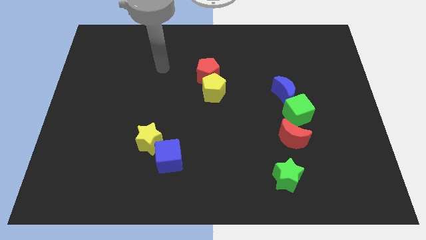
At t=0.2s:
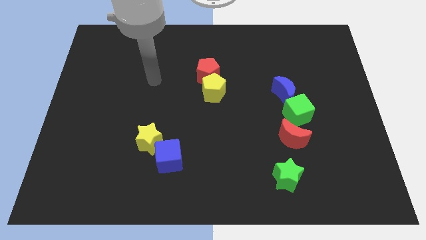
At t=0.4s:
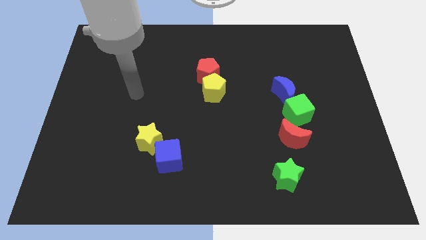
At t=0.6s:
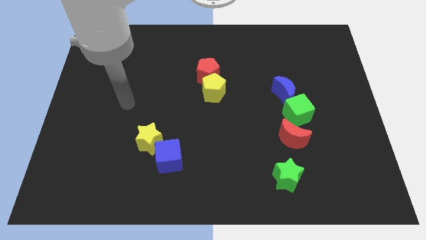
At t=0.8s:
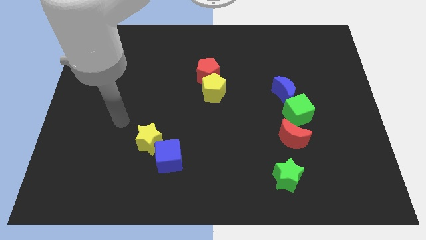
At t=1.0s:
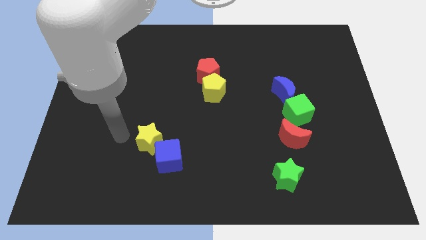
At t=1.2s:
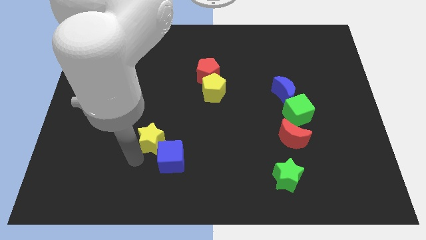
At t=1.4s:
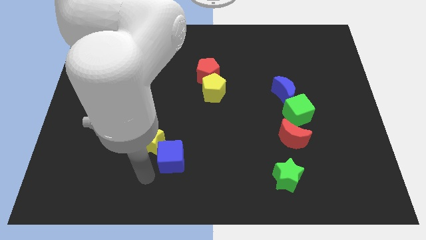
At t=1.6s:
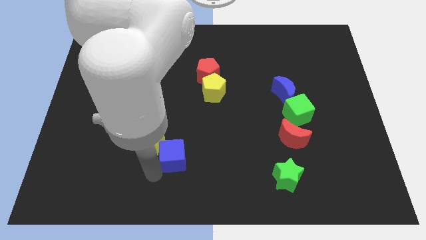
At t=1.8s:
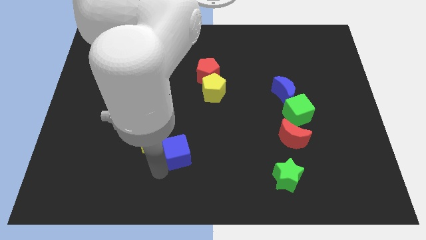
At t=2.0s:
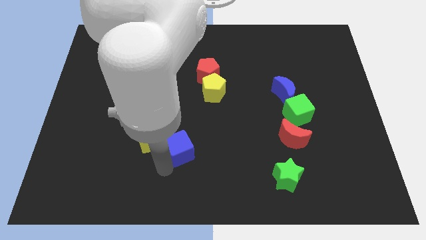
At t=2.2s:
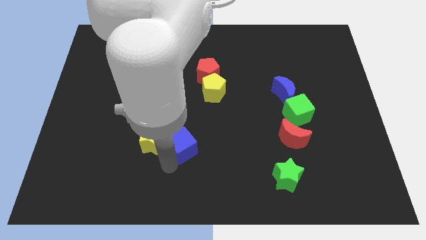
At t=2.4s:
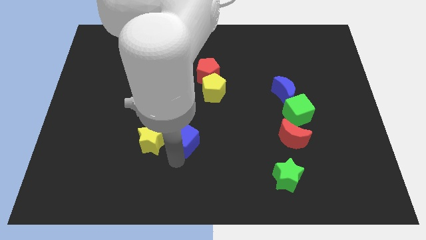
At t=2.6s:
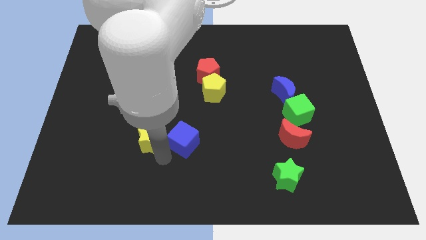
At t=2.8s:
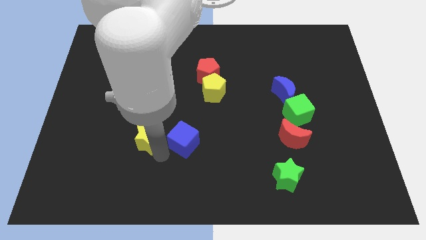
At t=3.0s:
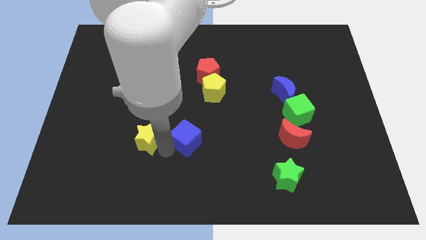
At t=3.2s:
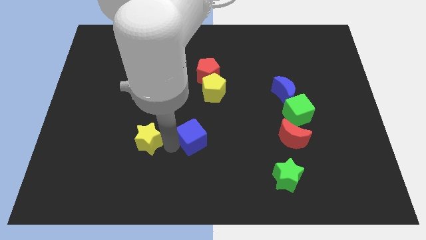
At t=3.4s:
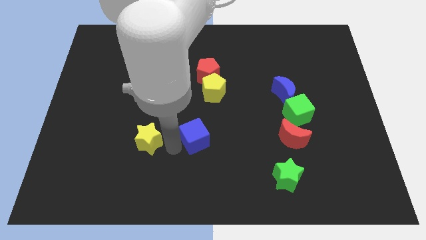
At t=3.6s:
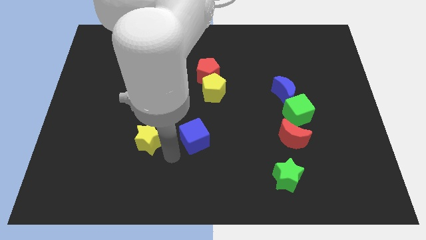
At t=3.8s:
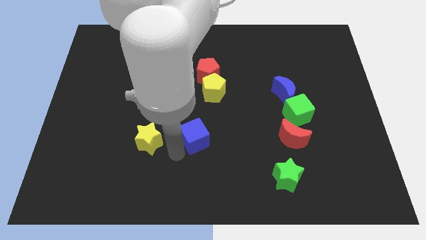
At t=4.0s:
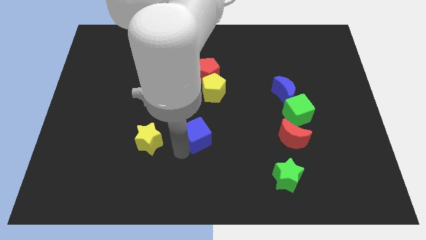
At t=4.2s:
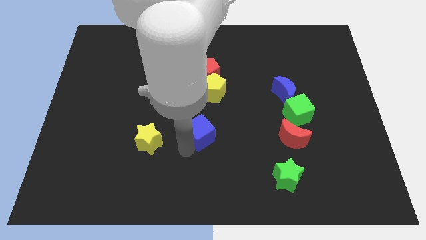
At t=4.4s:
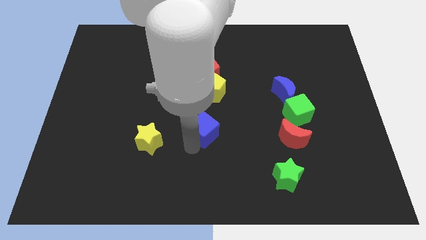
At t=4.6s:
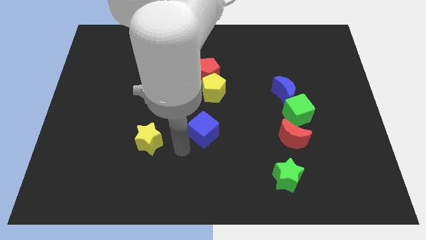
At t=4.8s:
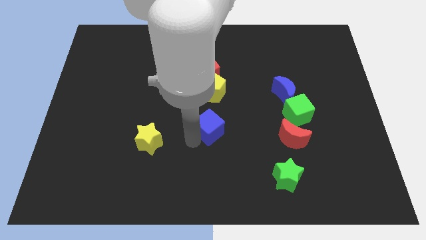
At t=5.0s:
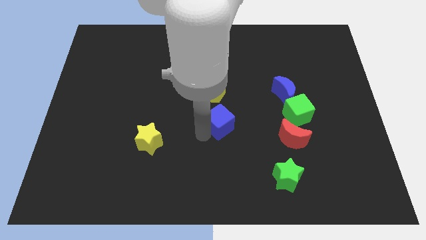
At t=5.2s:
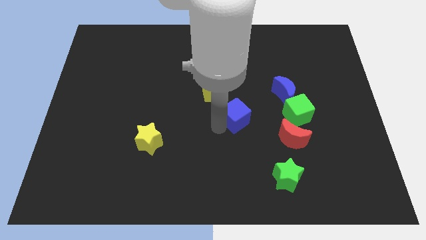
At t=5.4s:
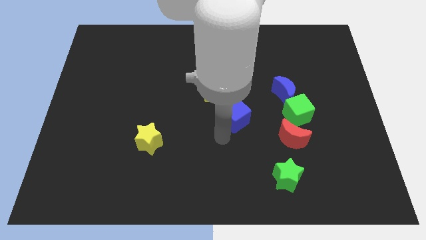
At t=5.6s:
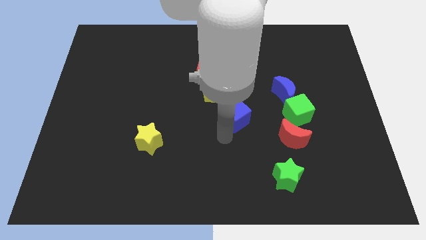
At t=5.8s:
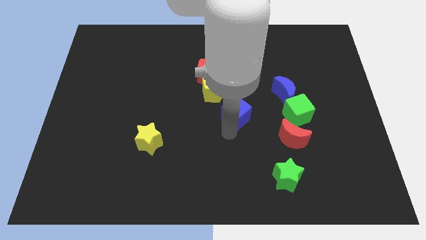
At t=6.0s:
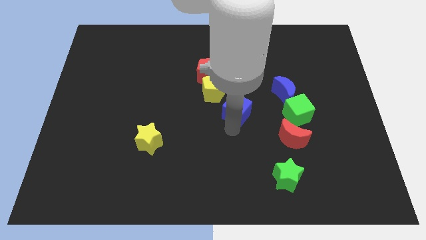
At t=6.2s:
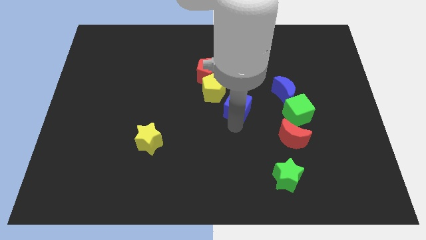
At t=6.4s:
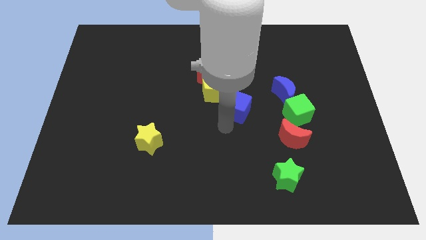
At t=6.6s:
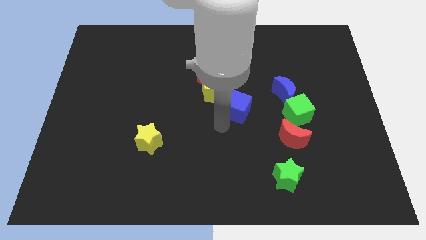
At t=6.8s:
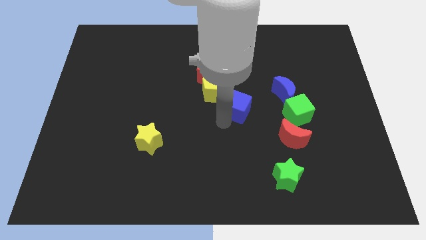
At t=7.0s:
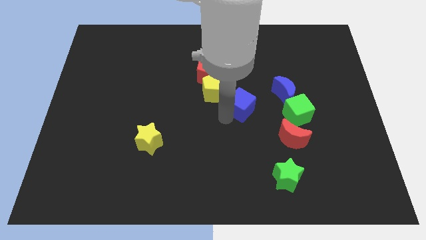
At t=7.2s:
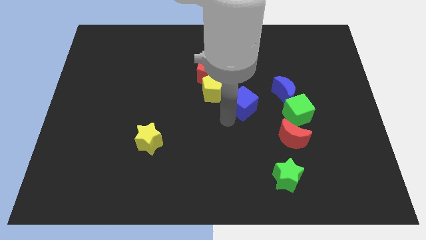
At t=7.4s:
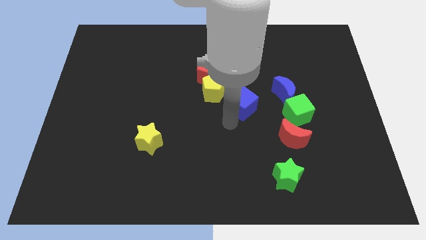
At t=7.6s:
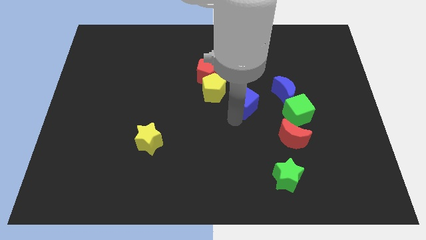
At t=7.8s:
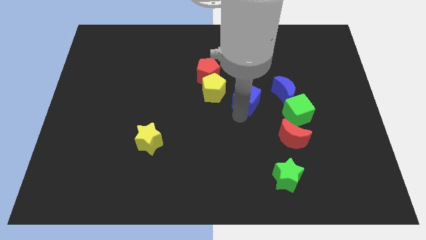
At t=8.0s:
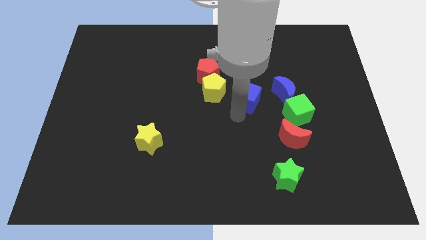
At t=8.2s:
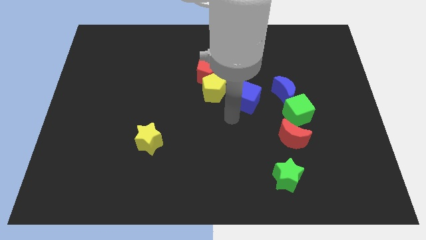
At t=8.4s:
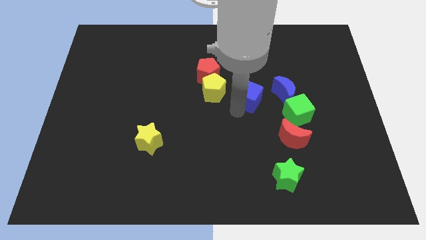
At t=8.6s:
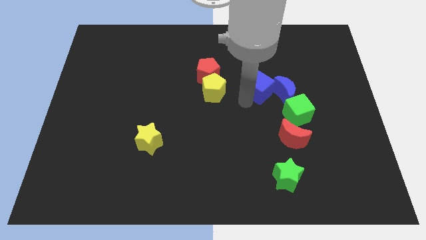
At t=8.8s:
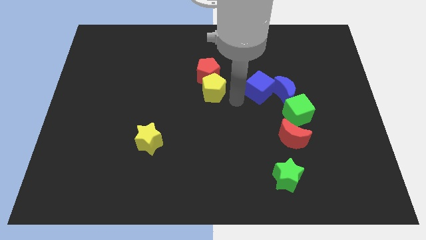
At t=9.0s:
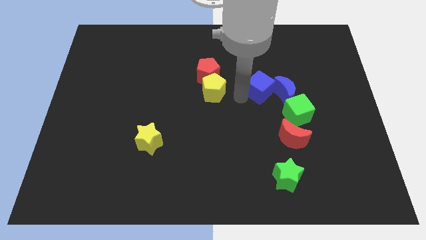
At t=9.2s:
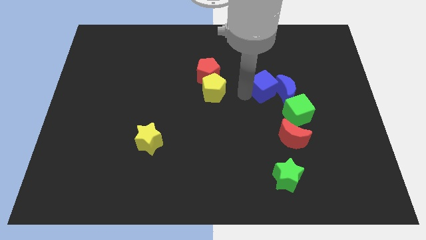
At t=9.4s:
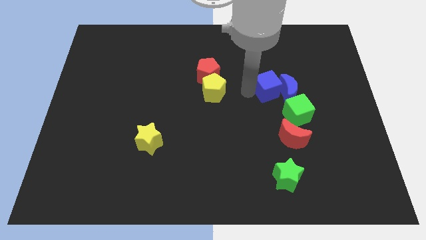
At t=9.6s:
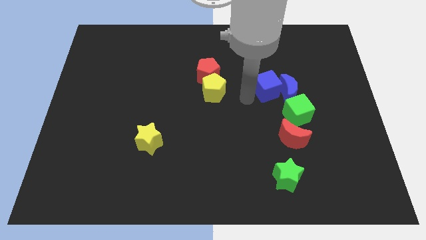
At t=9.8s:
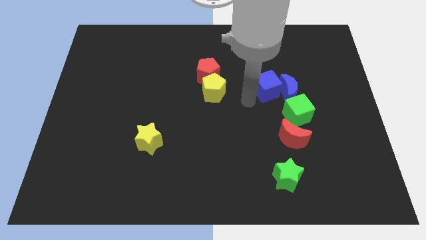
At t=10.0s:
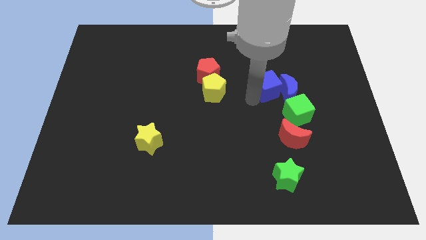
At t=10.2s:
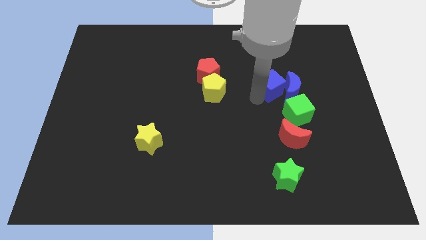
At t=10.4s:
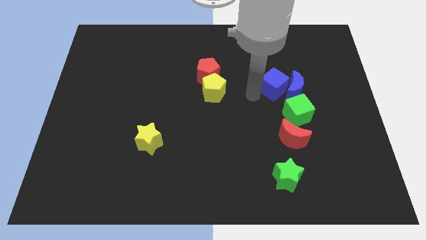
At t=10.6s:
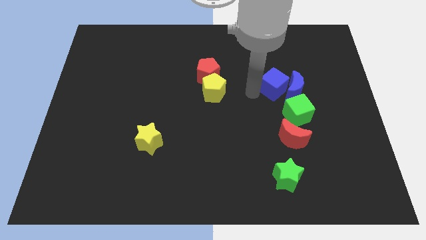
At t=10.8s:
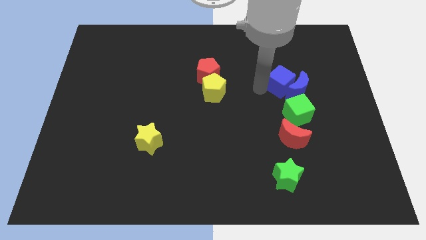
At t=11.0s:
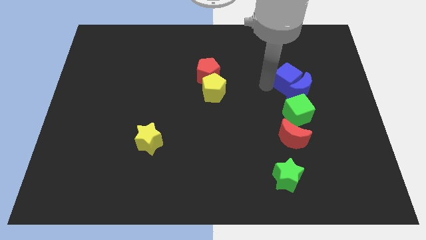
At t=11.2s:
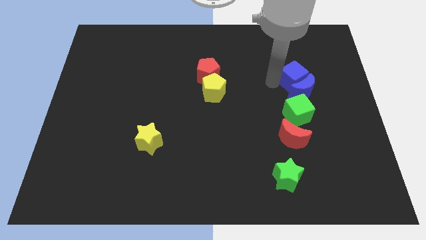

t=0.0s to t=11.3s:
push the blue cube to the top right side of the blue moon

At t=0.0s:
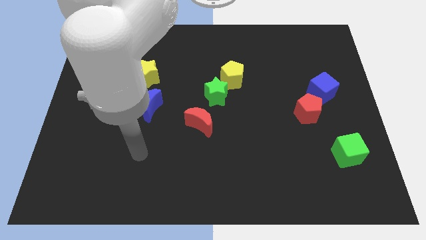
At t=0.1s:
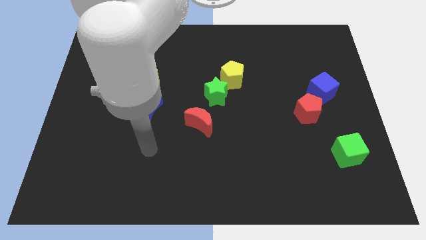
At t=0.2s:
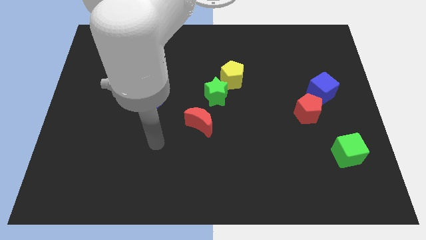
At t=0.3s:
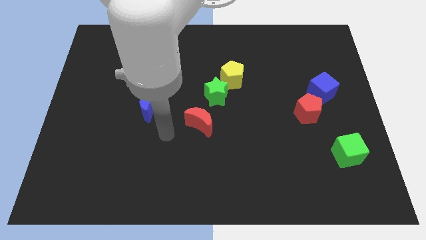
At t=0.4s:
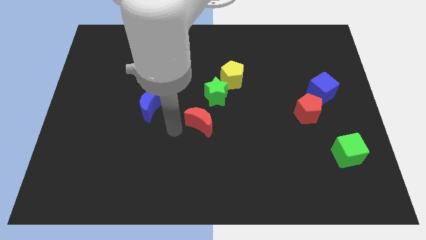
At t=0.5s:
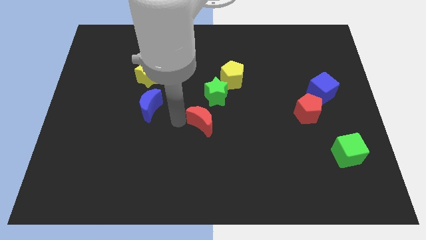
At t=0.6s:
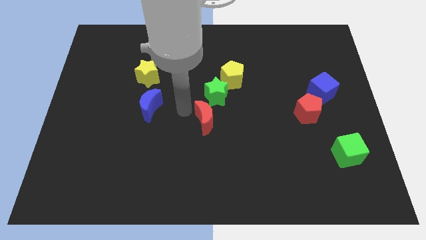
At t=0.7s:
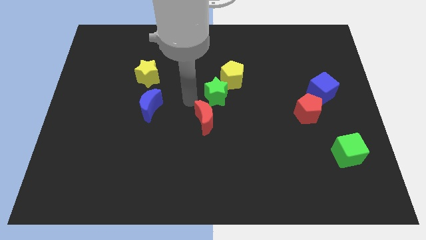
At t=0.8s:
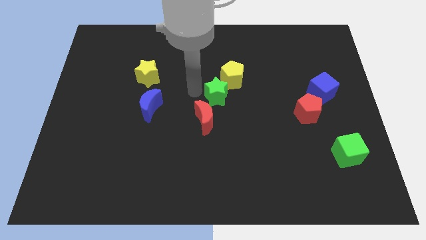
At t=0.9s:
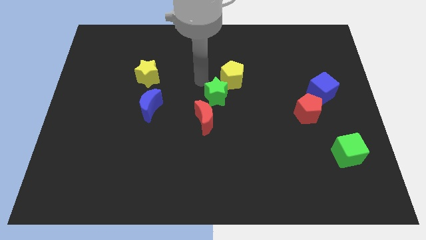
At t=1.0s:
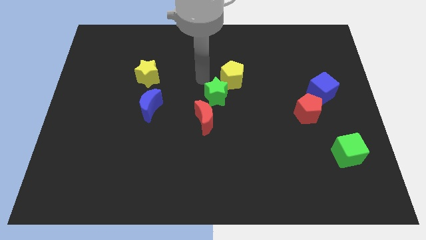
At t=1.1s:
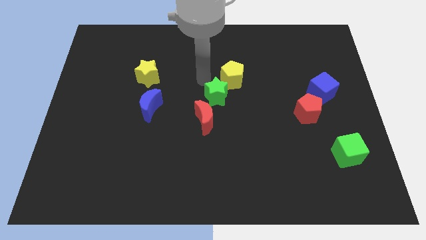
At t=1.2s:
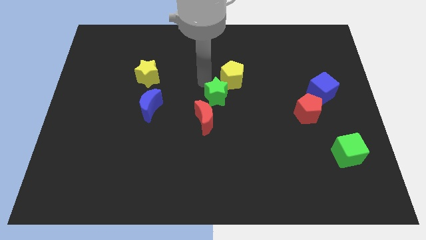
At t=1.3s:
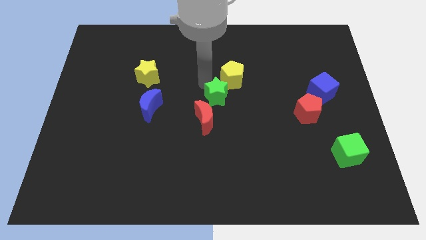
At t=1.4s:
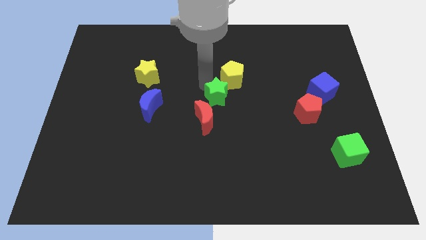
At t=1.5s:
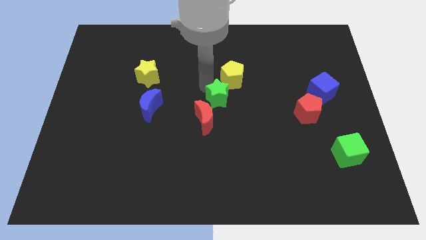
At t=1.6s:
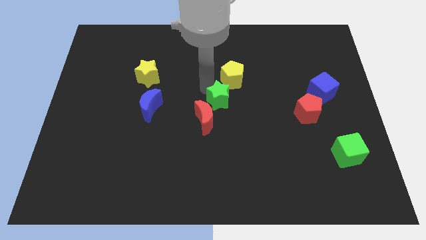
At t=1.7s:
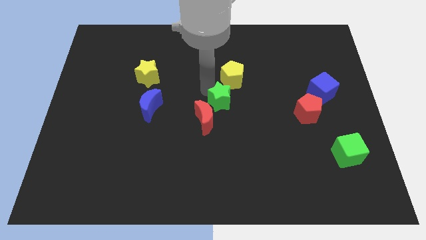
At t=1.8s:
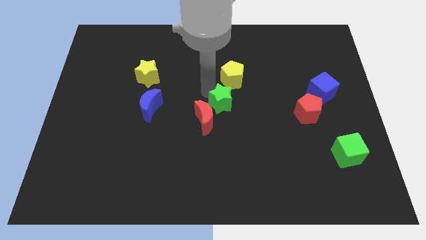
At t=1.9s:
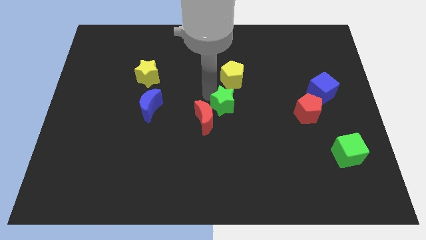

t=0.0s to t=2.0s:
put the green star to the right side of the red moon
